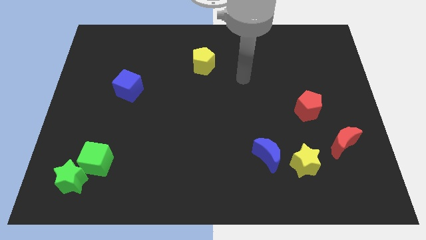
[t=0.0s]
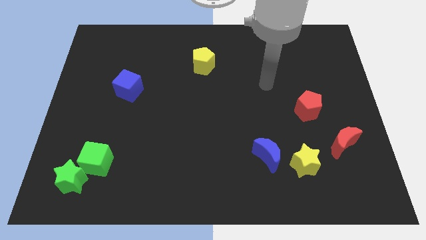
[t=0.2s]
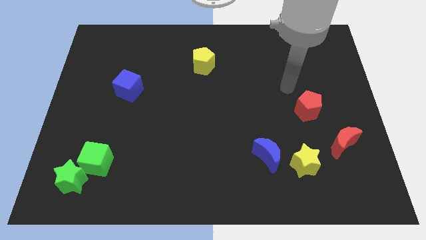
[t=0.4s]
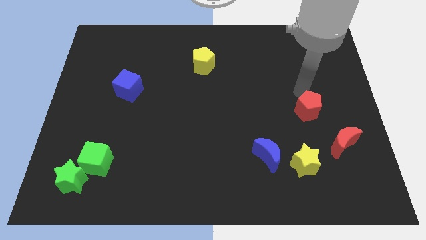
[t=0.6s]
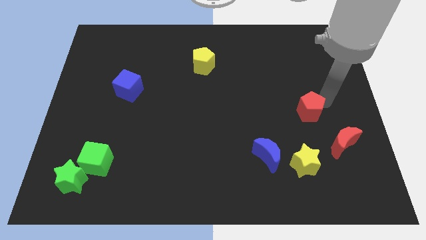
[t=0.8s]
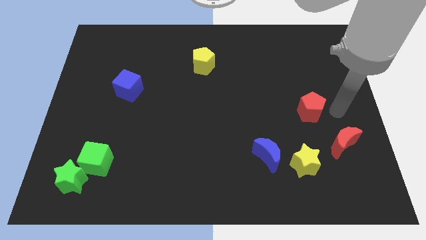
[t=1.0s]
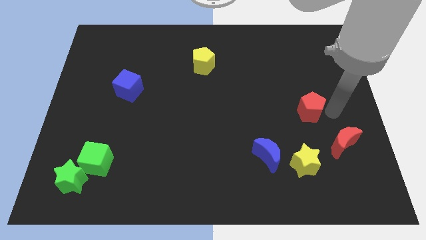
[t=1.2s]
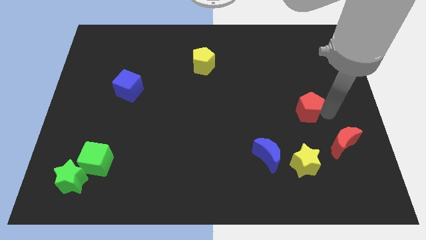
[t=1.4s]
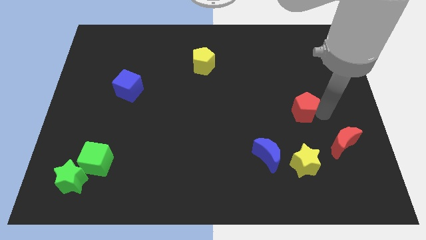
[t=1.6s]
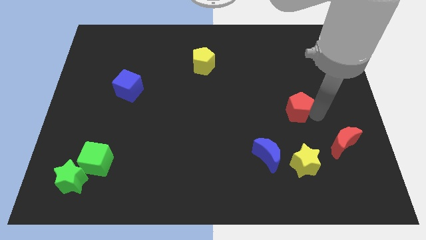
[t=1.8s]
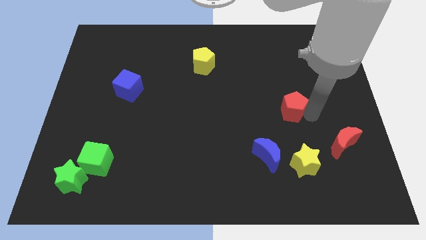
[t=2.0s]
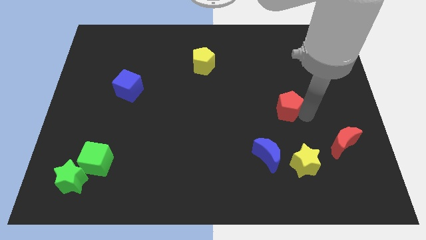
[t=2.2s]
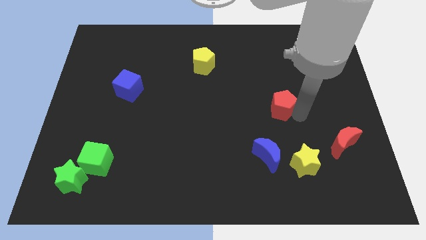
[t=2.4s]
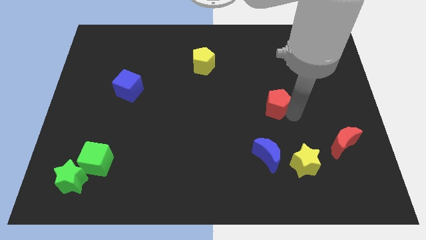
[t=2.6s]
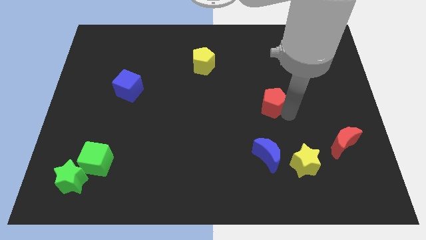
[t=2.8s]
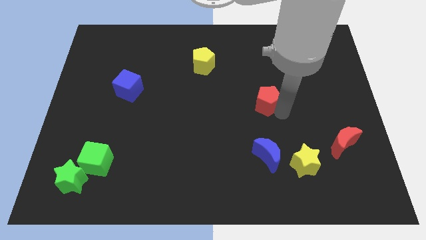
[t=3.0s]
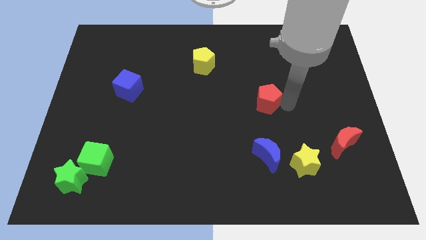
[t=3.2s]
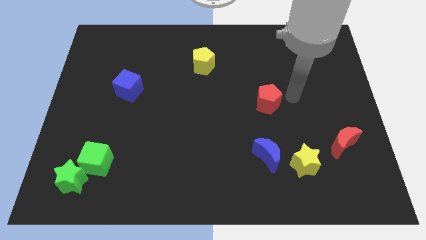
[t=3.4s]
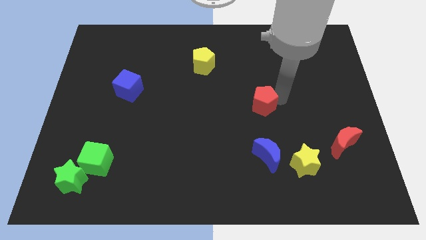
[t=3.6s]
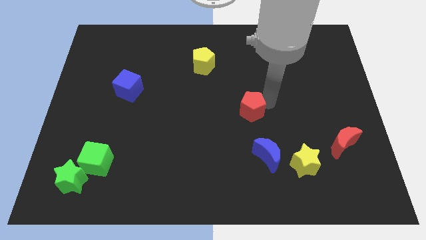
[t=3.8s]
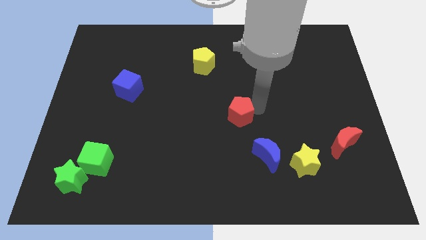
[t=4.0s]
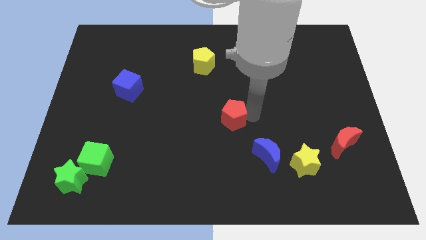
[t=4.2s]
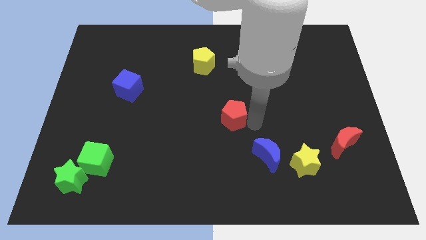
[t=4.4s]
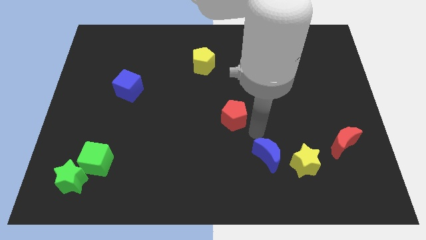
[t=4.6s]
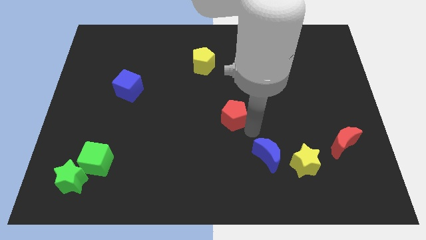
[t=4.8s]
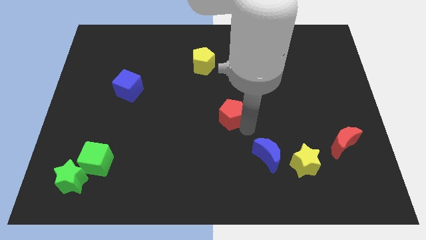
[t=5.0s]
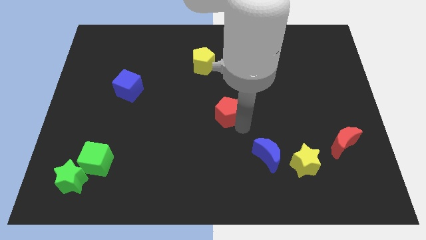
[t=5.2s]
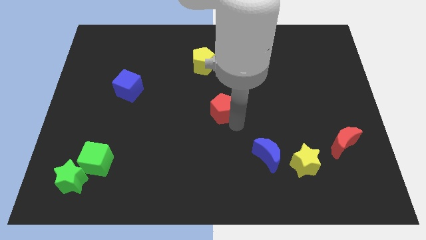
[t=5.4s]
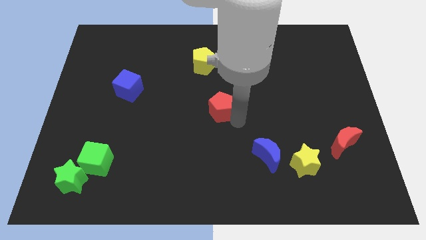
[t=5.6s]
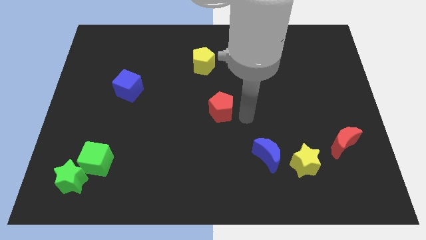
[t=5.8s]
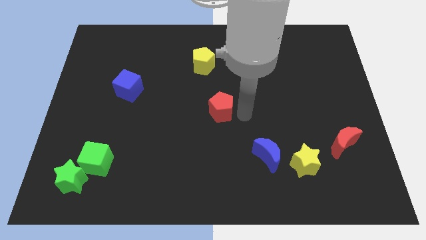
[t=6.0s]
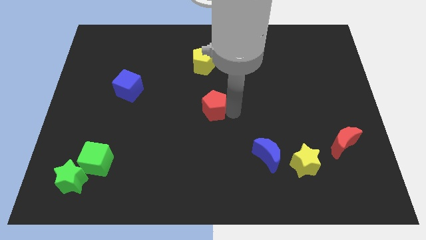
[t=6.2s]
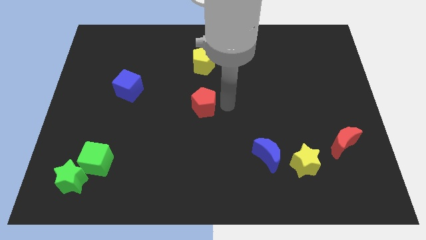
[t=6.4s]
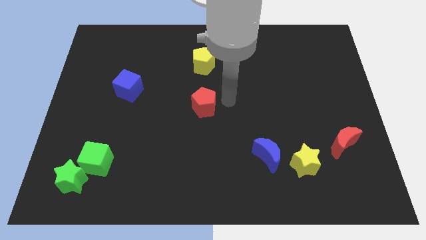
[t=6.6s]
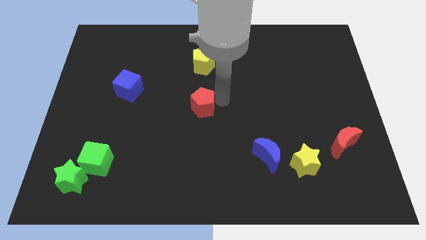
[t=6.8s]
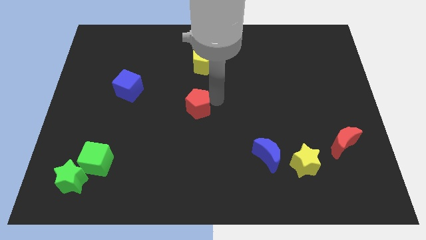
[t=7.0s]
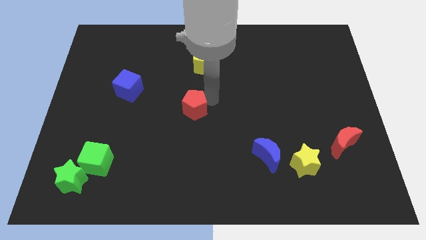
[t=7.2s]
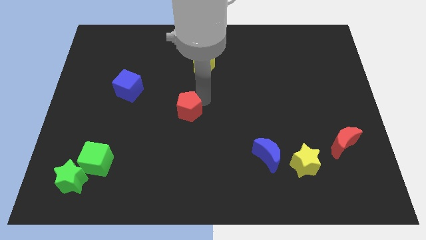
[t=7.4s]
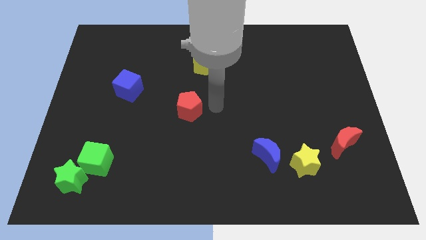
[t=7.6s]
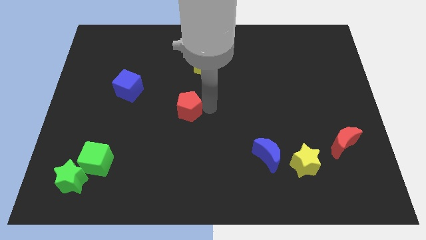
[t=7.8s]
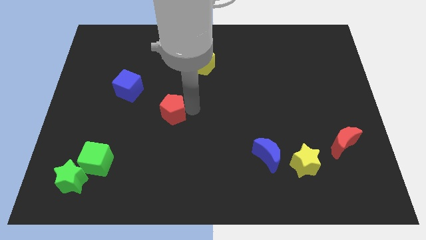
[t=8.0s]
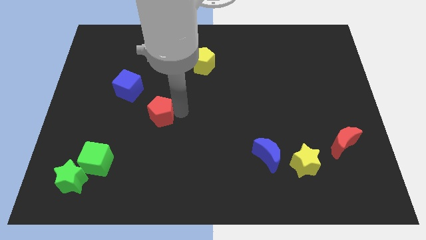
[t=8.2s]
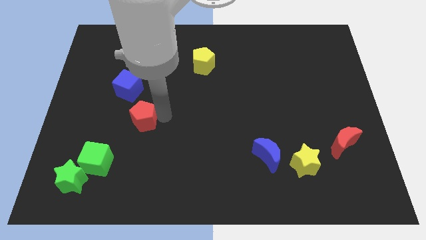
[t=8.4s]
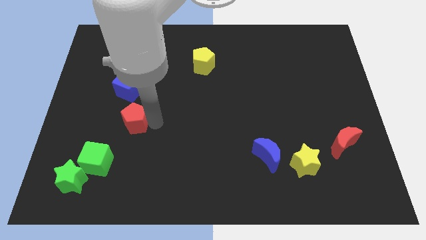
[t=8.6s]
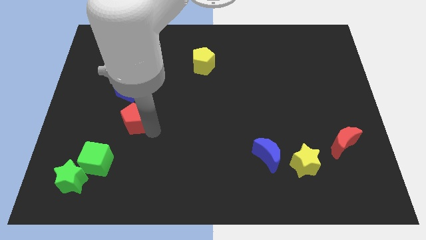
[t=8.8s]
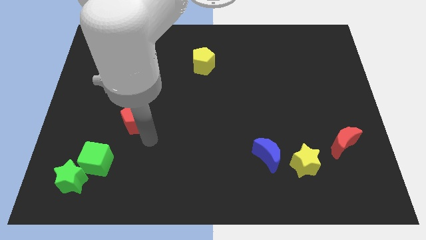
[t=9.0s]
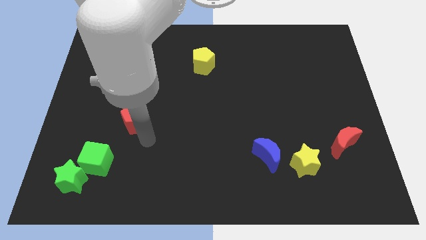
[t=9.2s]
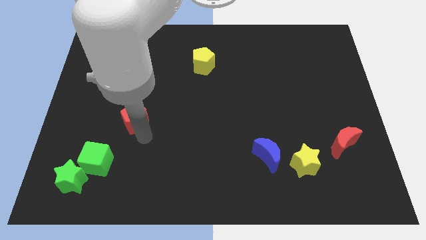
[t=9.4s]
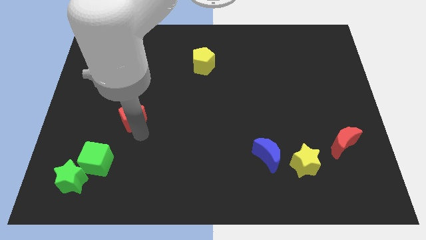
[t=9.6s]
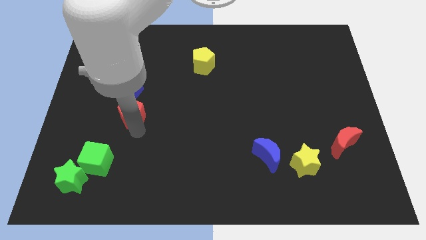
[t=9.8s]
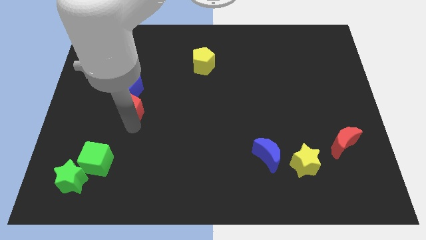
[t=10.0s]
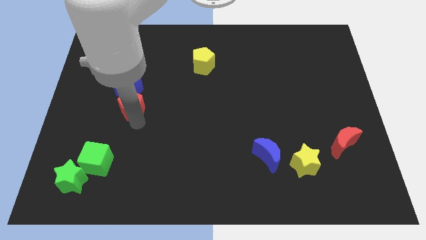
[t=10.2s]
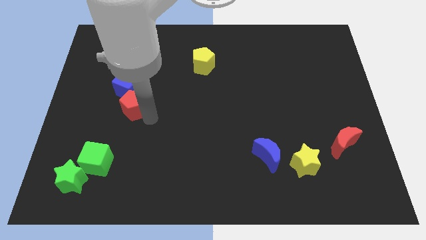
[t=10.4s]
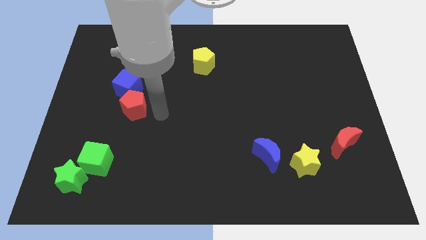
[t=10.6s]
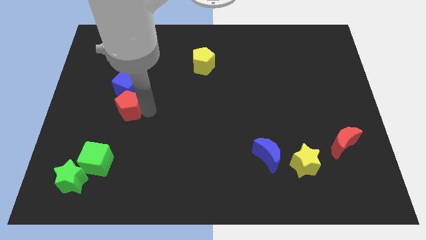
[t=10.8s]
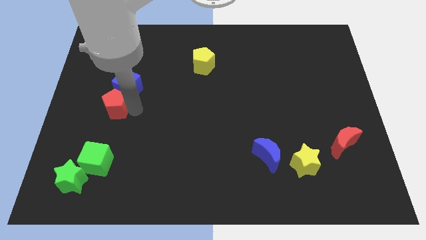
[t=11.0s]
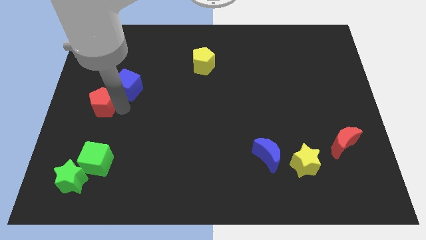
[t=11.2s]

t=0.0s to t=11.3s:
push the red pentagon to the left side

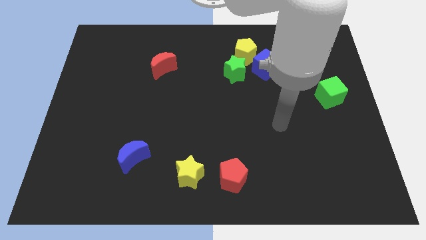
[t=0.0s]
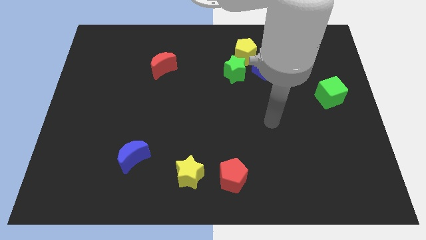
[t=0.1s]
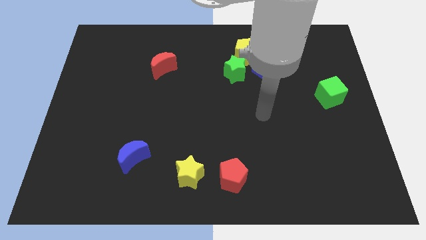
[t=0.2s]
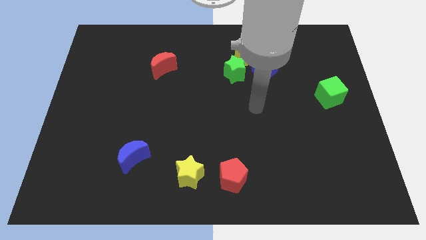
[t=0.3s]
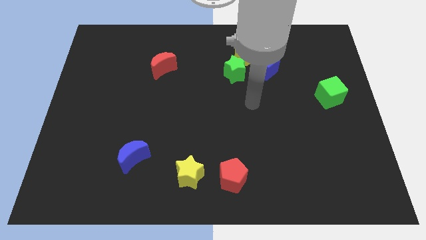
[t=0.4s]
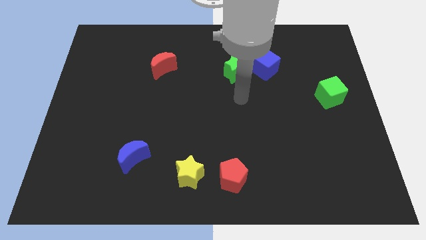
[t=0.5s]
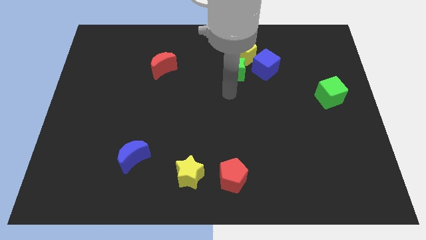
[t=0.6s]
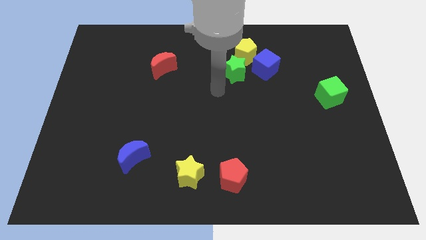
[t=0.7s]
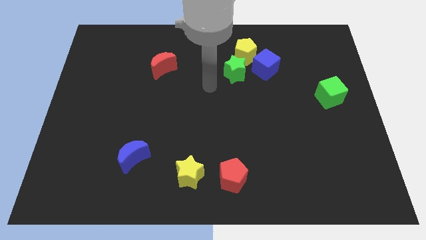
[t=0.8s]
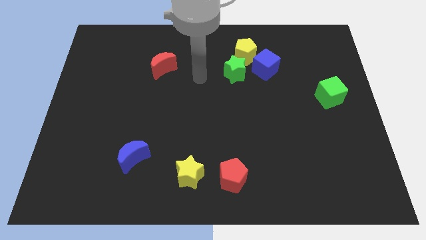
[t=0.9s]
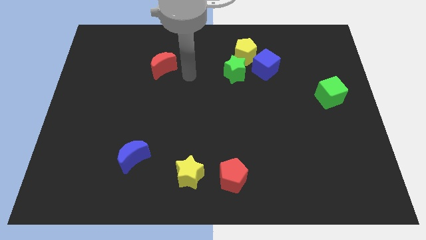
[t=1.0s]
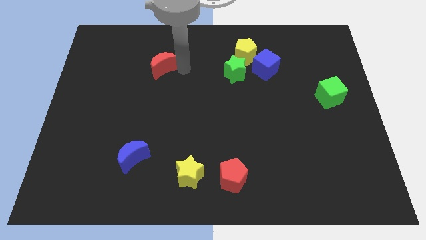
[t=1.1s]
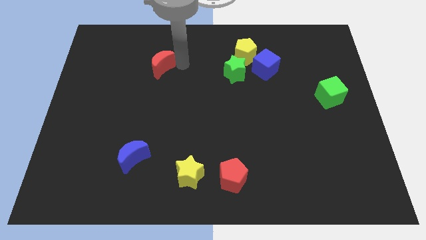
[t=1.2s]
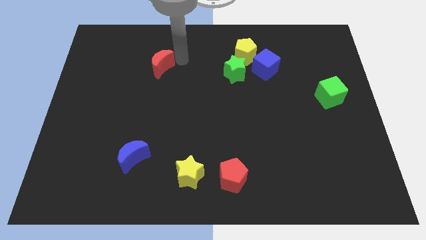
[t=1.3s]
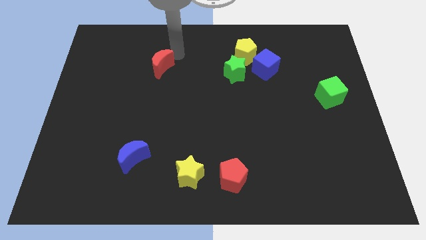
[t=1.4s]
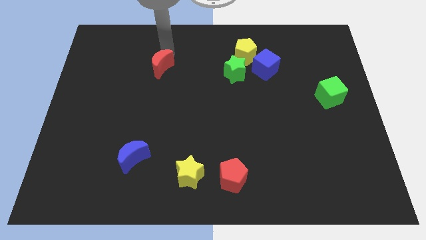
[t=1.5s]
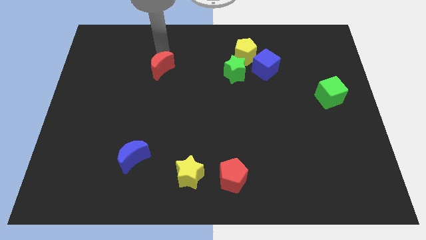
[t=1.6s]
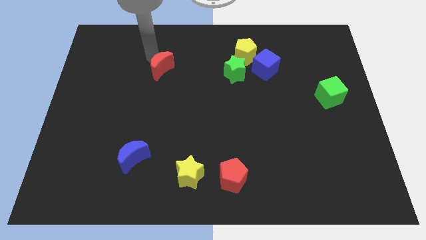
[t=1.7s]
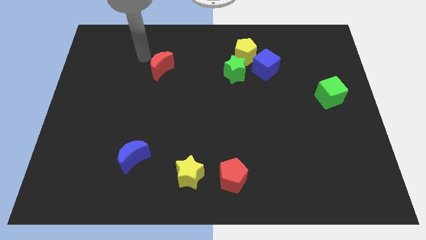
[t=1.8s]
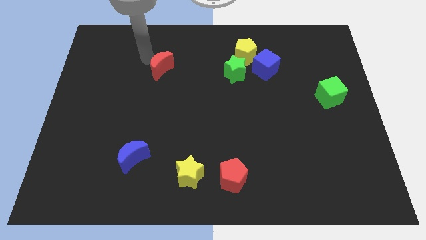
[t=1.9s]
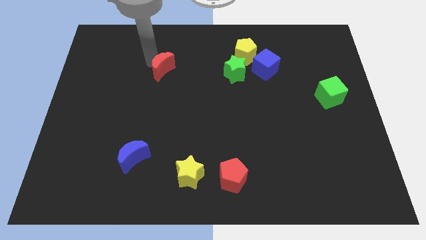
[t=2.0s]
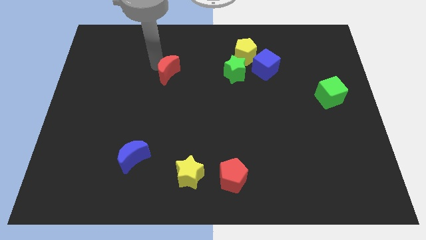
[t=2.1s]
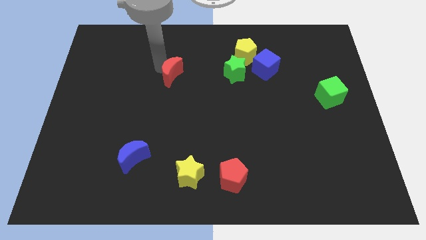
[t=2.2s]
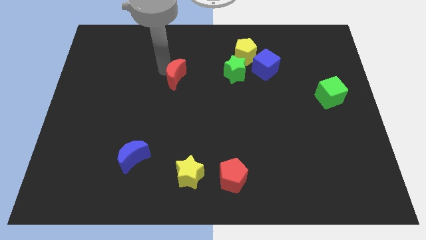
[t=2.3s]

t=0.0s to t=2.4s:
put the red moon to the center
